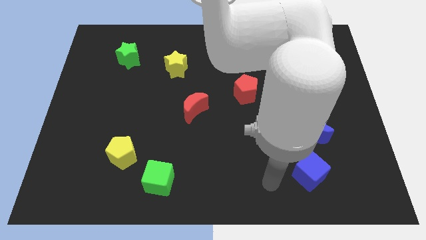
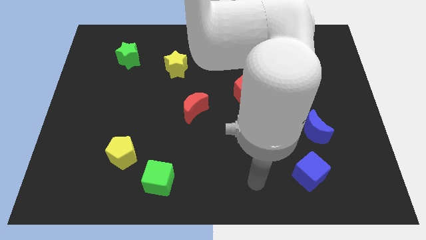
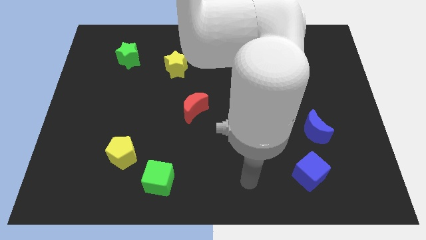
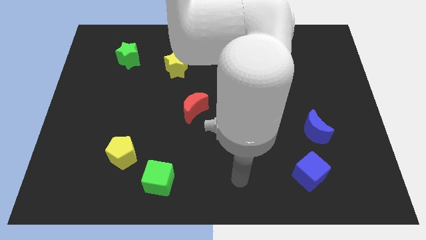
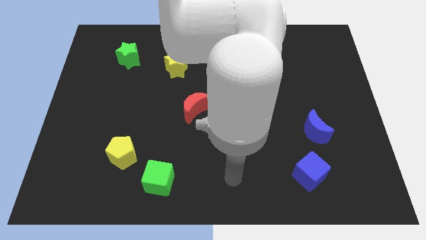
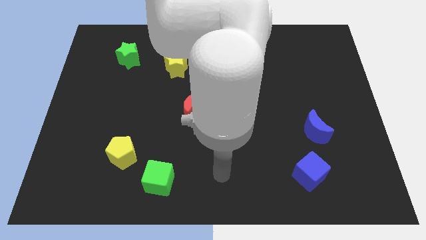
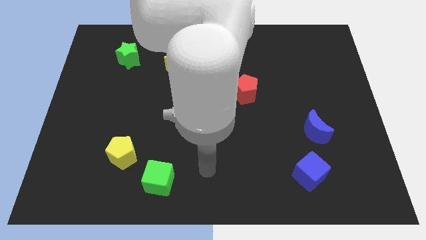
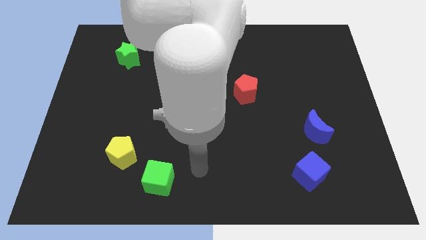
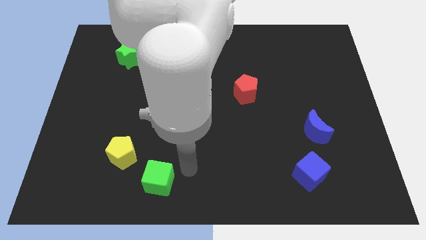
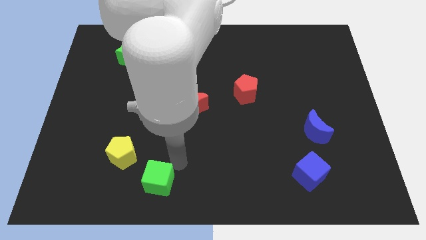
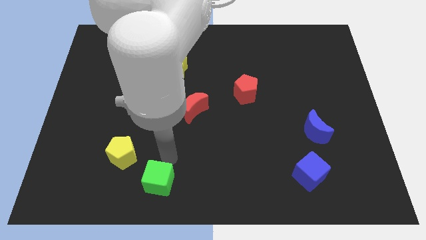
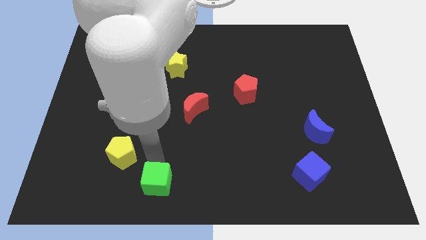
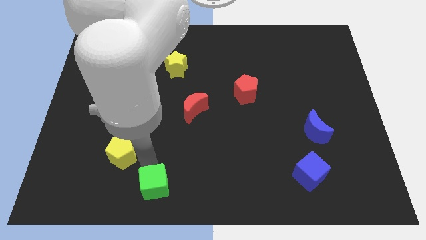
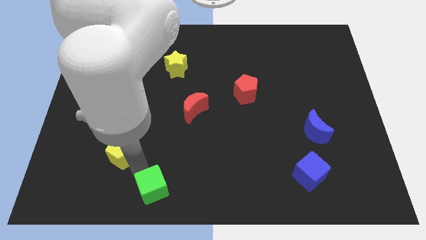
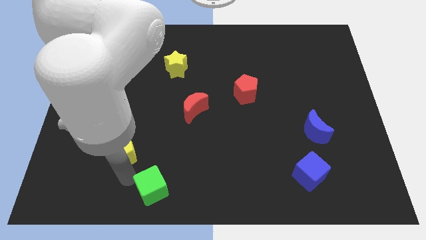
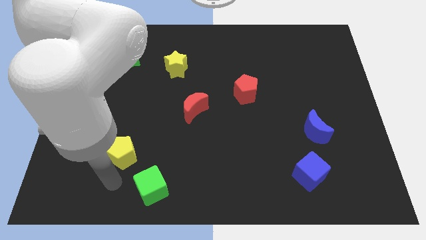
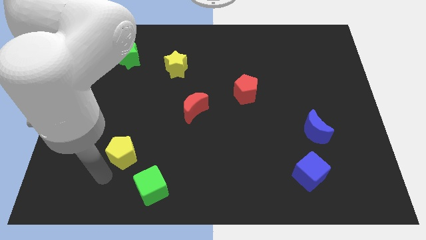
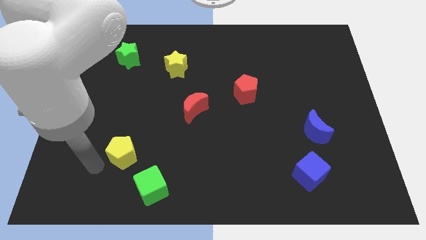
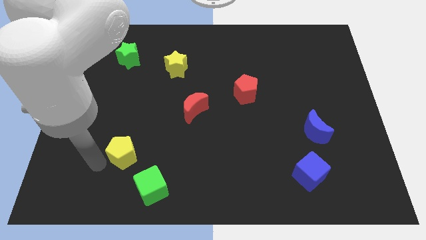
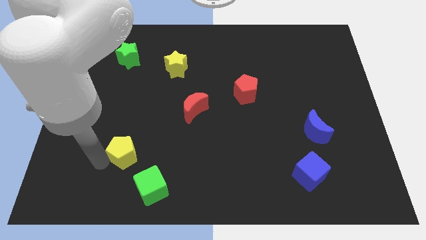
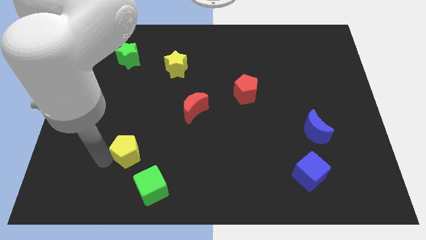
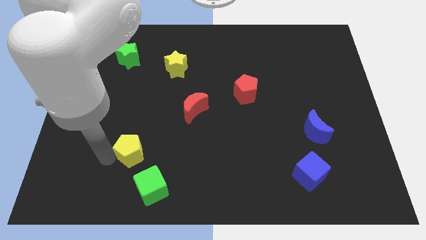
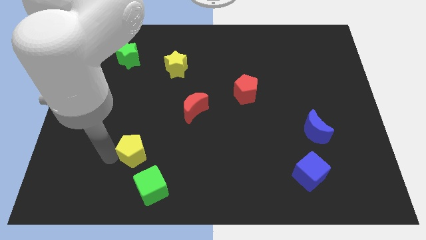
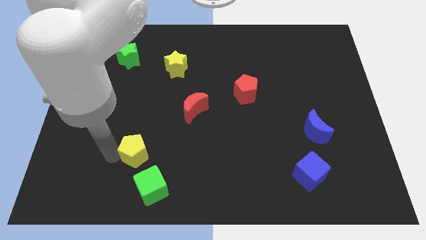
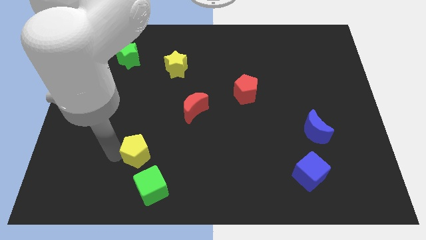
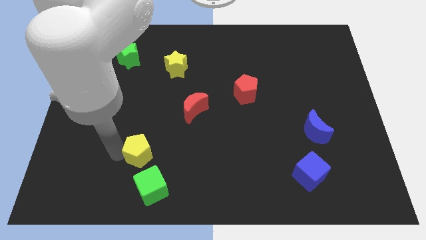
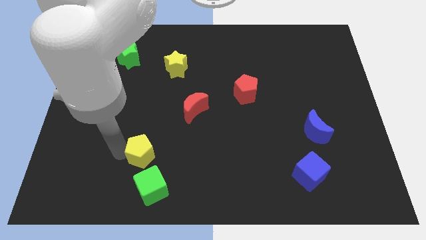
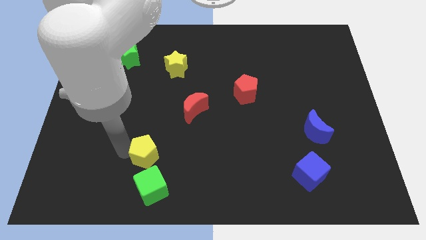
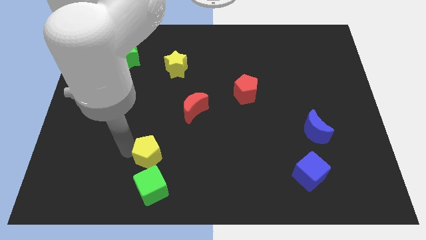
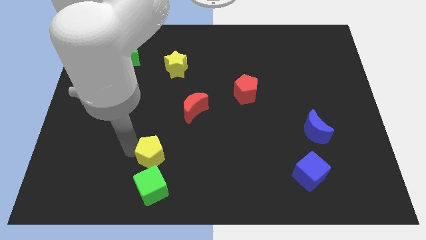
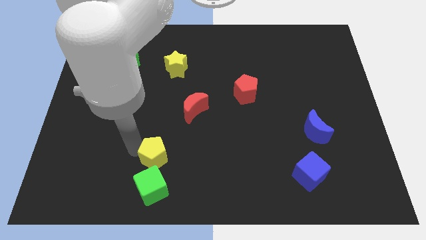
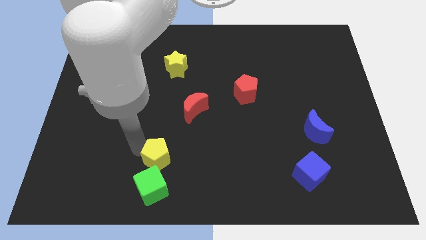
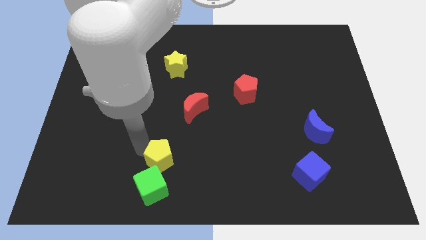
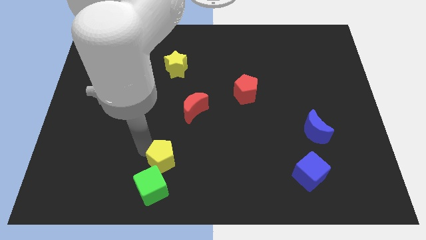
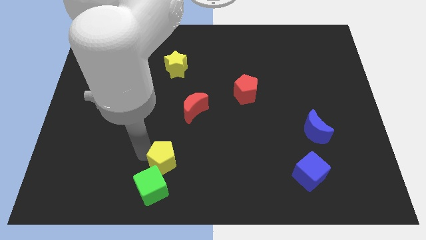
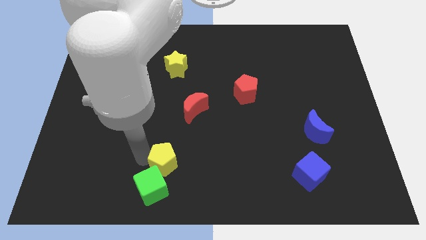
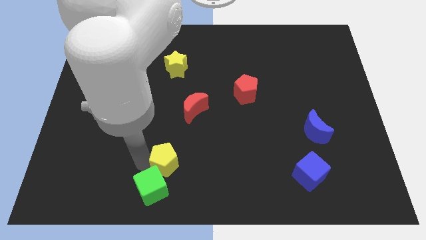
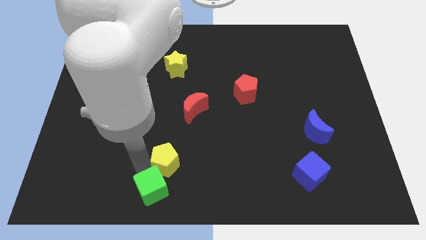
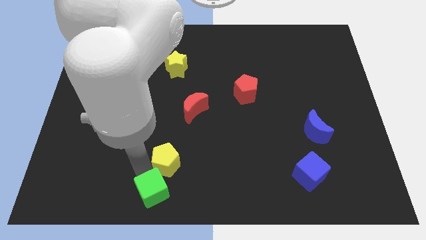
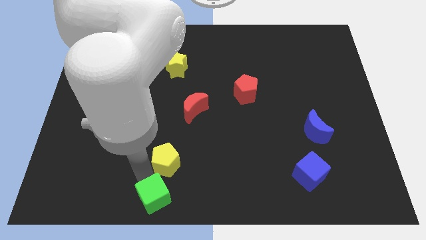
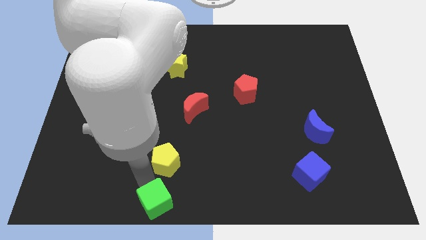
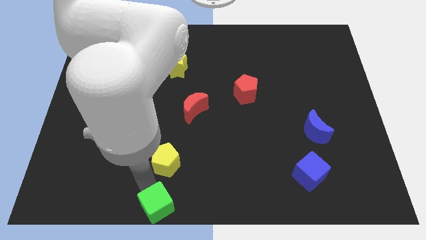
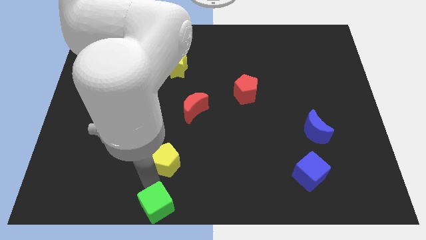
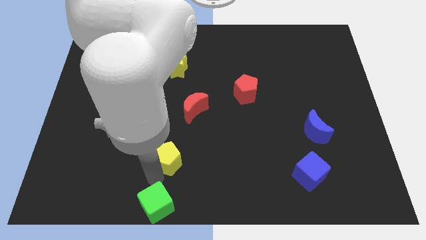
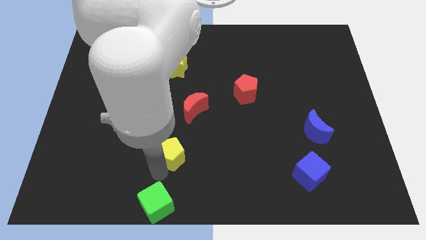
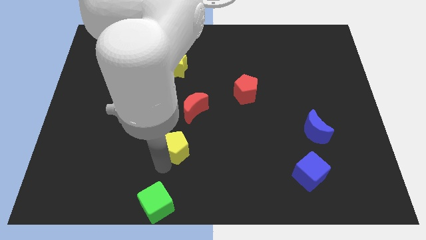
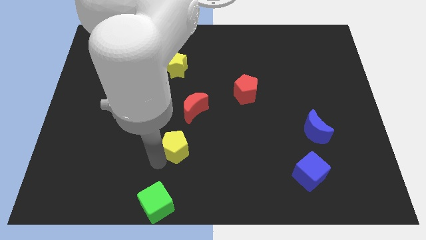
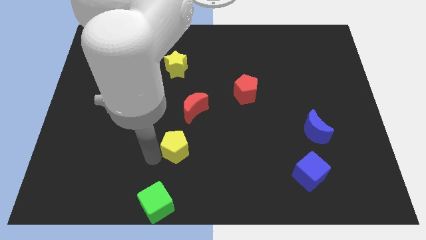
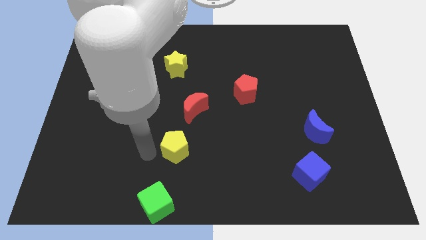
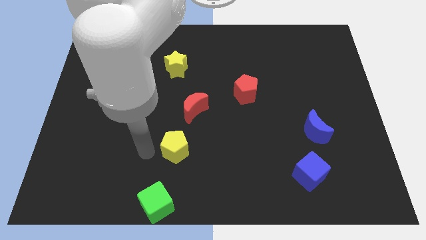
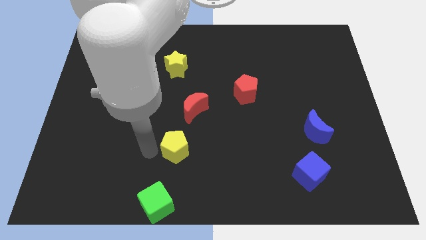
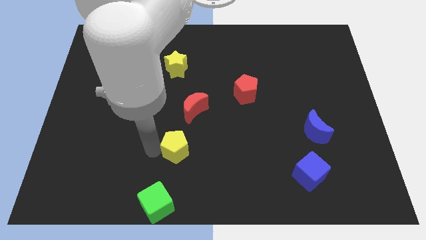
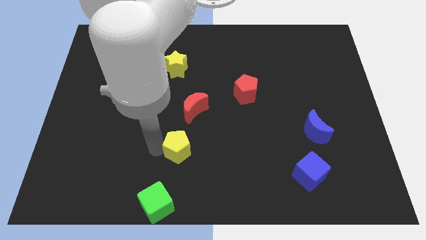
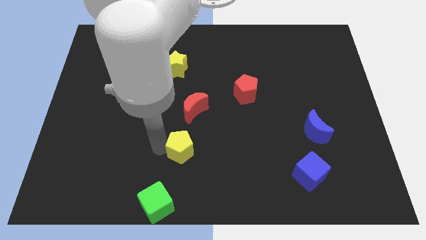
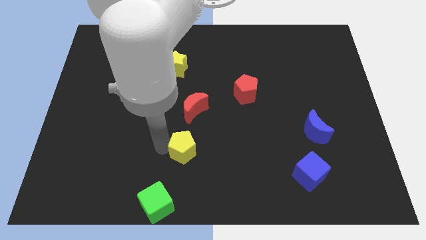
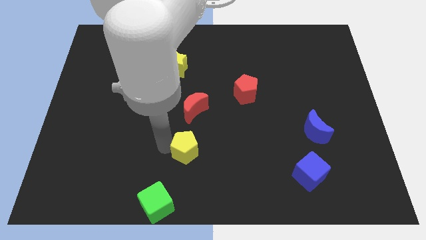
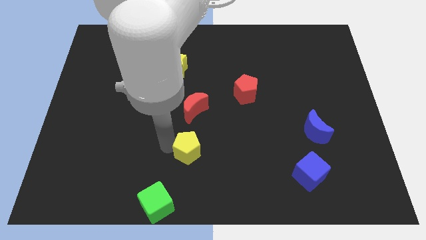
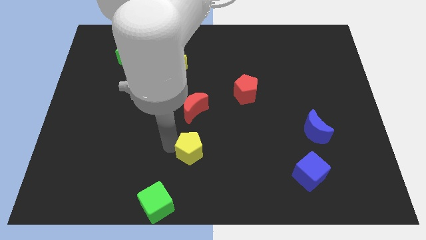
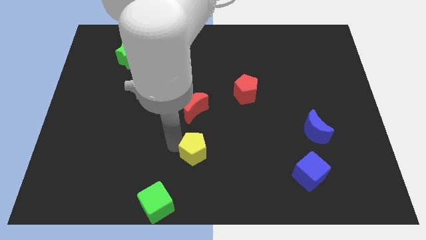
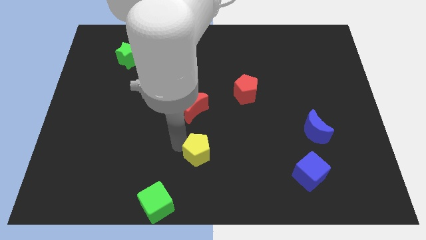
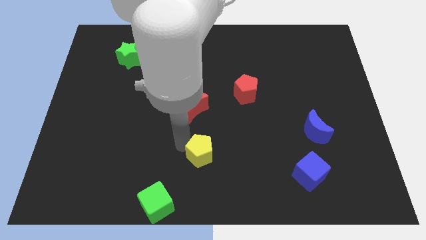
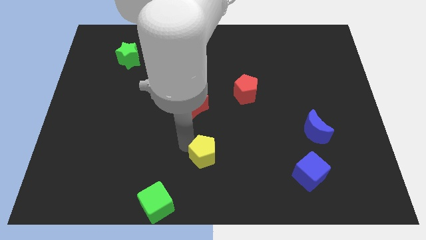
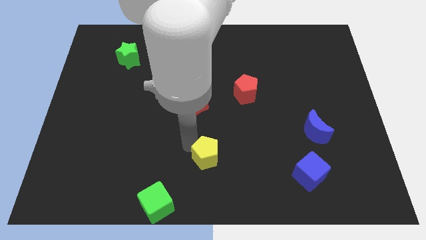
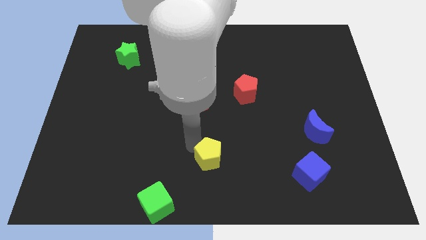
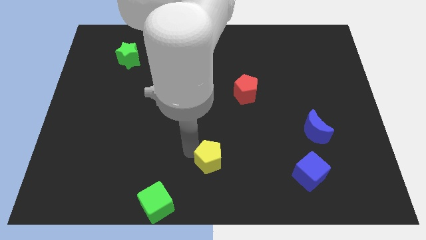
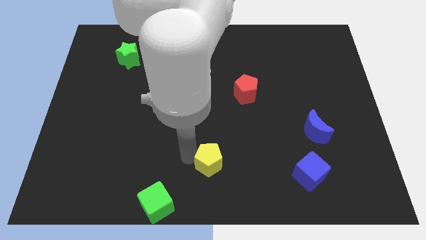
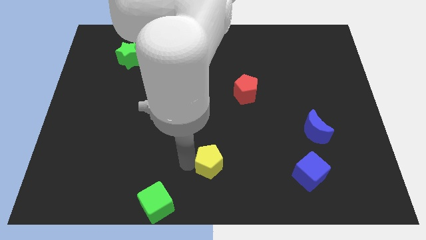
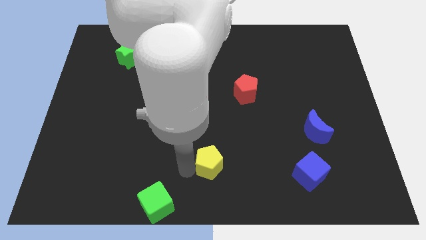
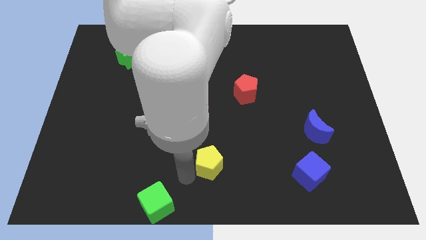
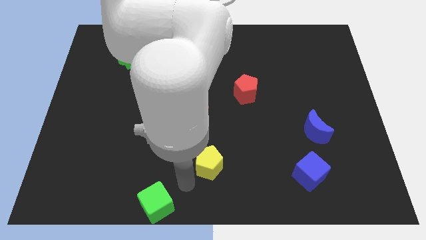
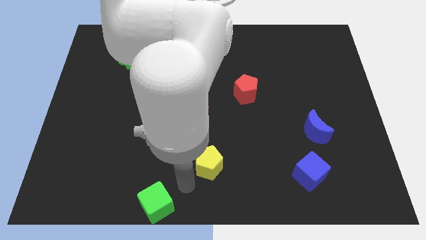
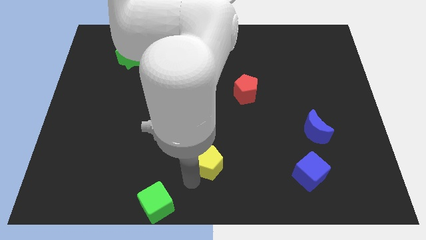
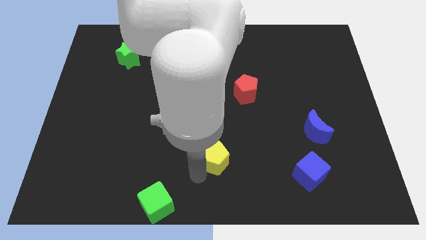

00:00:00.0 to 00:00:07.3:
push the yellow pentagon right

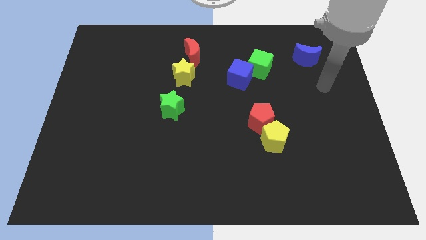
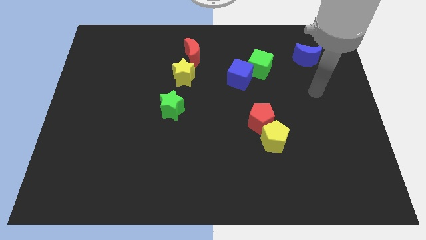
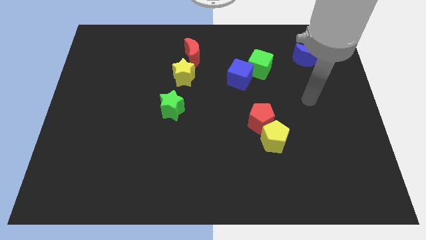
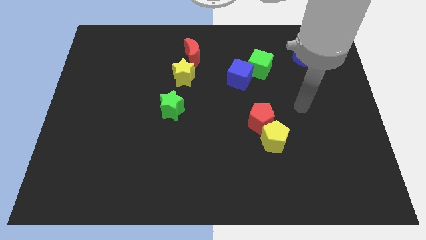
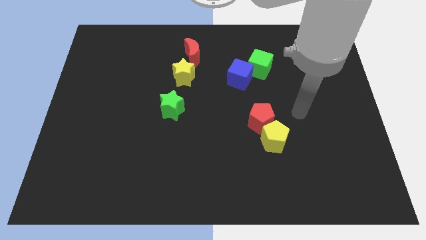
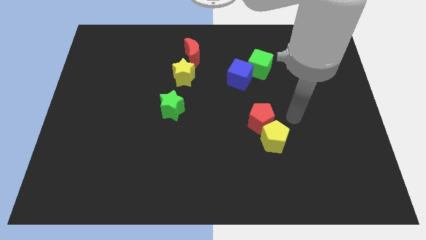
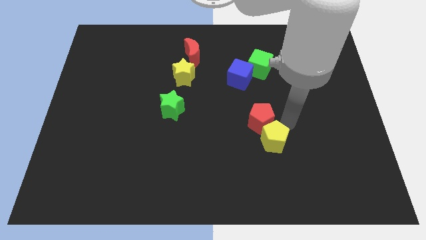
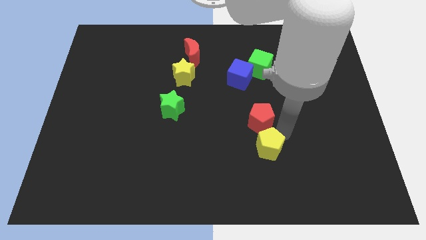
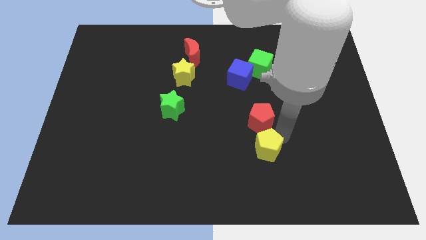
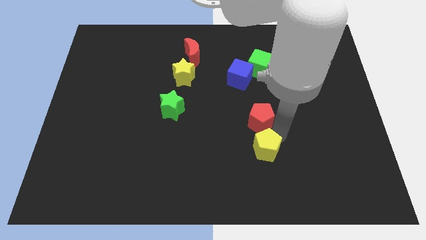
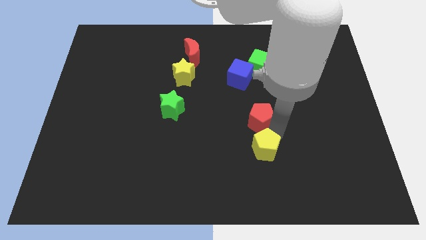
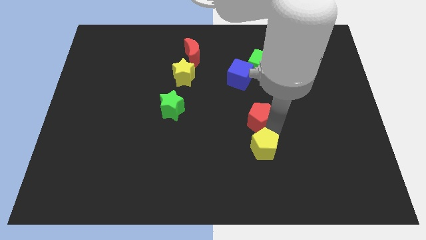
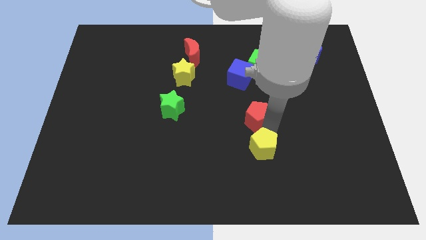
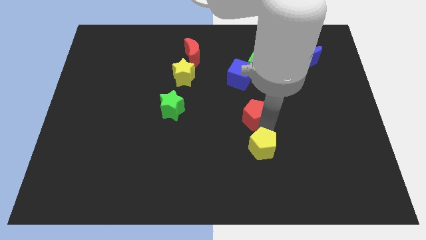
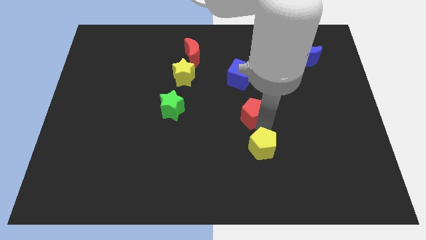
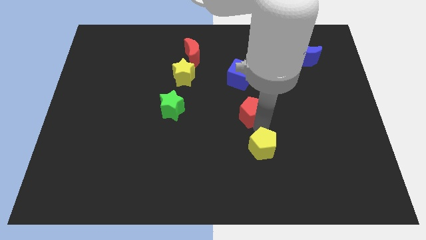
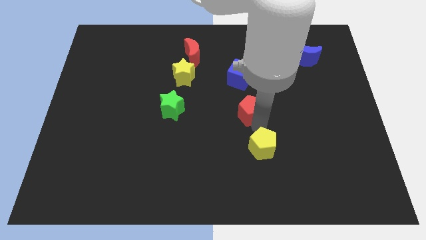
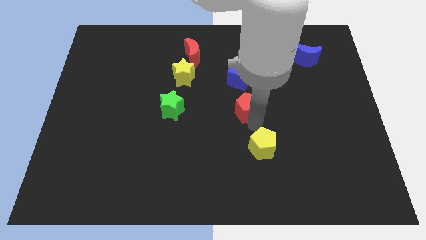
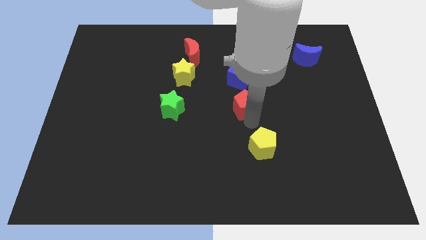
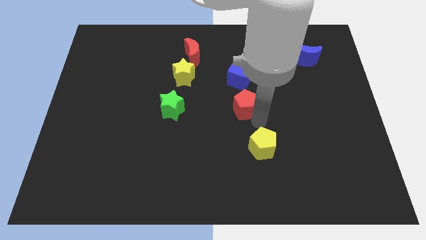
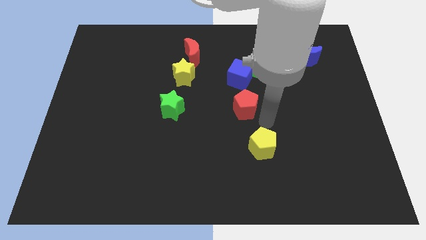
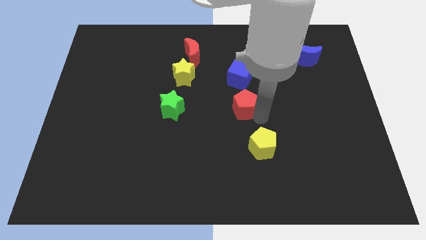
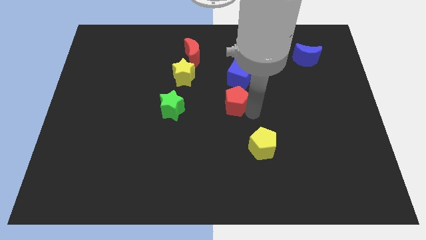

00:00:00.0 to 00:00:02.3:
move the red pentagon a little up and then to the left
